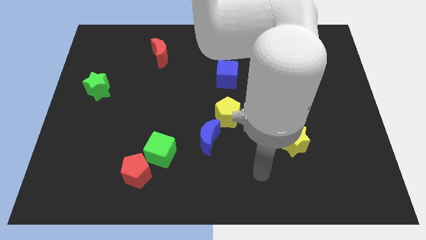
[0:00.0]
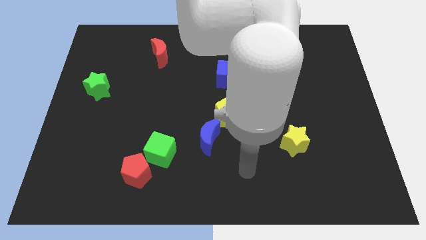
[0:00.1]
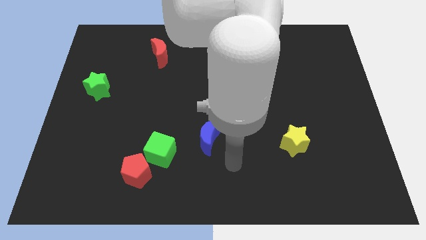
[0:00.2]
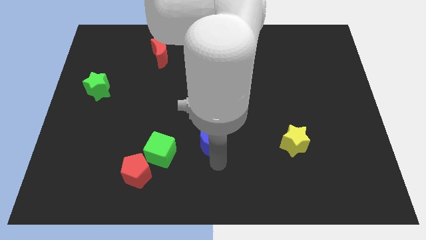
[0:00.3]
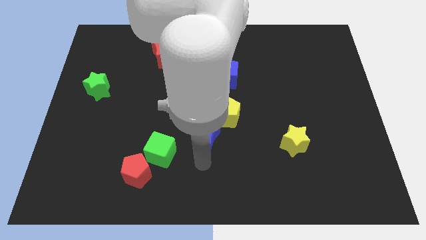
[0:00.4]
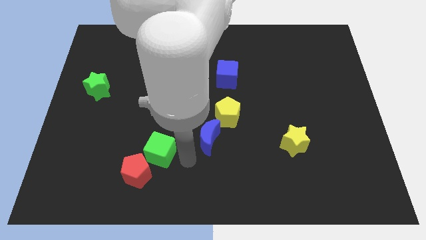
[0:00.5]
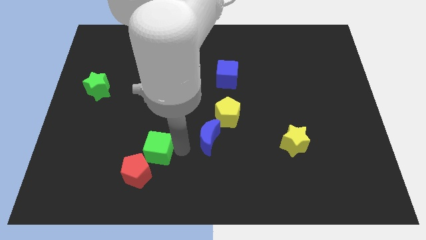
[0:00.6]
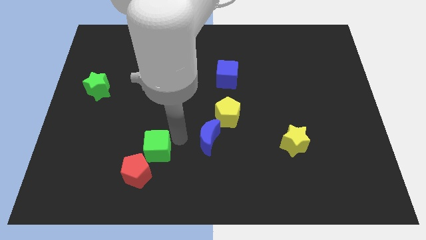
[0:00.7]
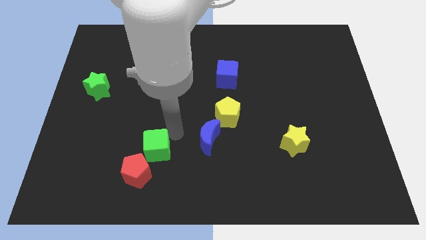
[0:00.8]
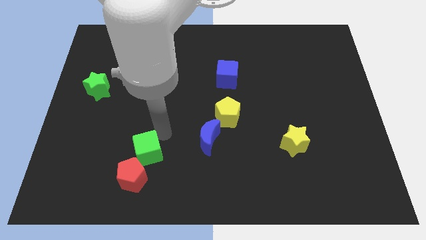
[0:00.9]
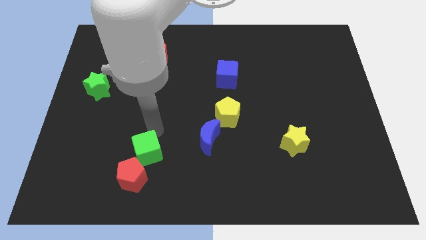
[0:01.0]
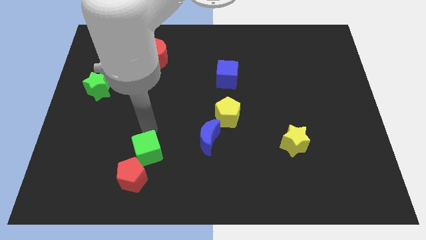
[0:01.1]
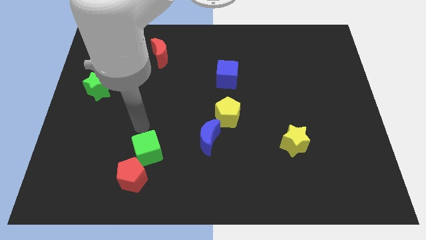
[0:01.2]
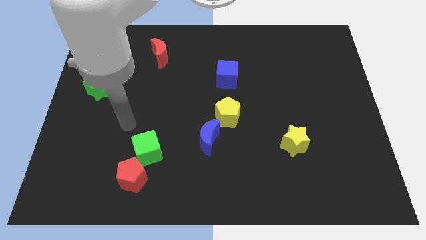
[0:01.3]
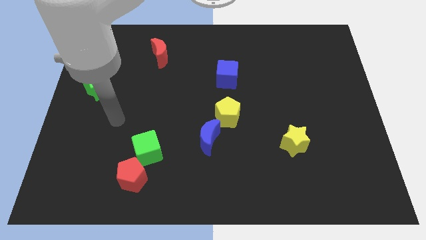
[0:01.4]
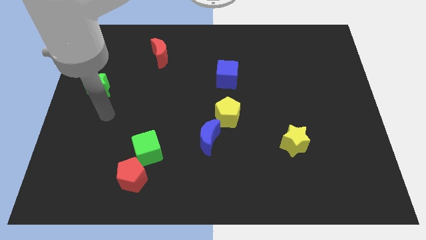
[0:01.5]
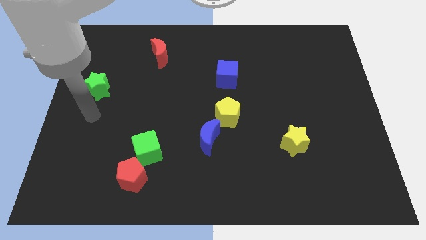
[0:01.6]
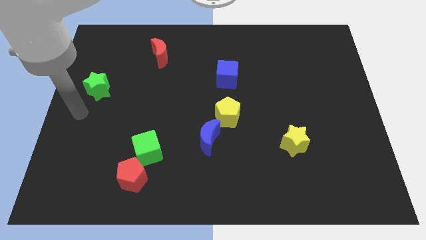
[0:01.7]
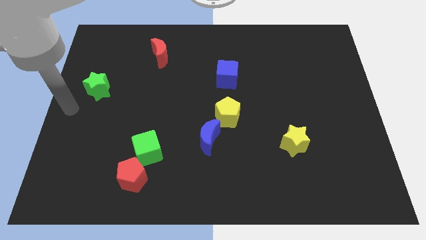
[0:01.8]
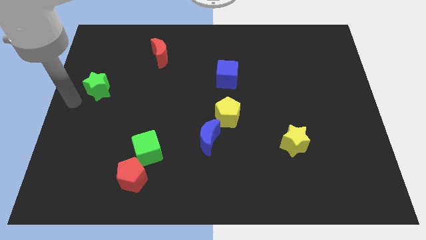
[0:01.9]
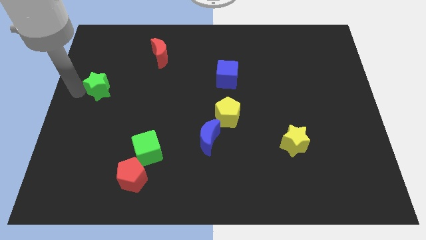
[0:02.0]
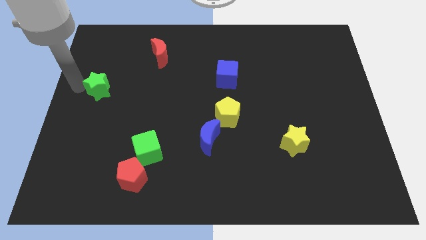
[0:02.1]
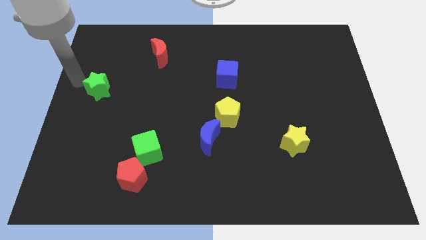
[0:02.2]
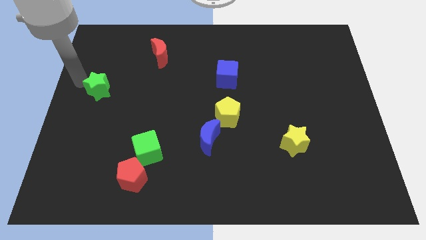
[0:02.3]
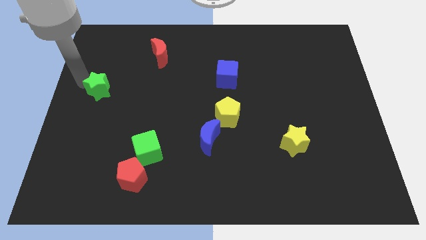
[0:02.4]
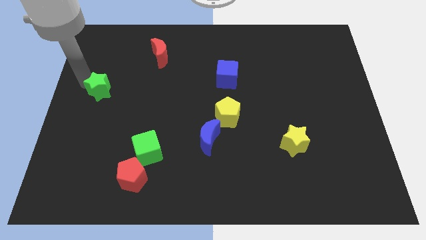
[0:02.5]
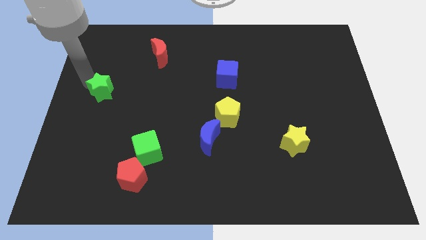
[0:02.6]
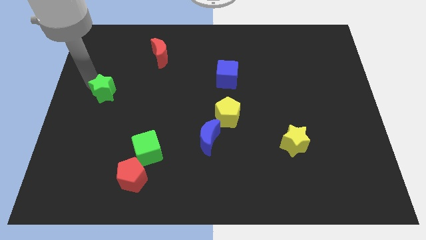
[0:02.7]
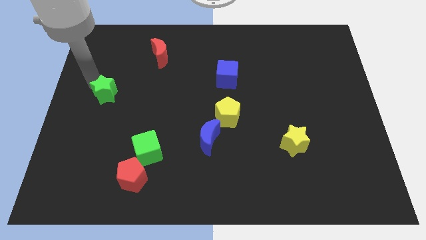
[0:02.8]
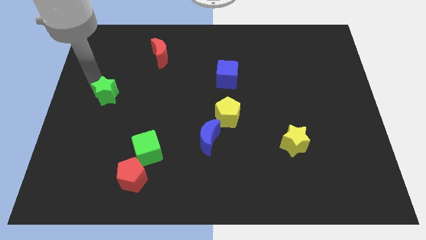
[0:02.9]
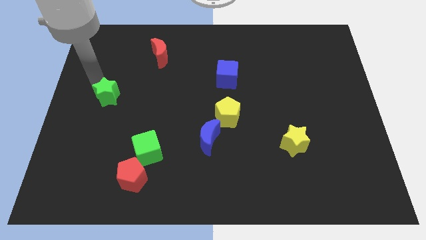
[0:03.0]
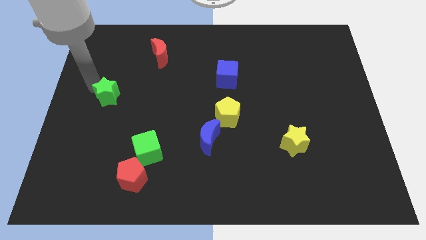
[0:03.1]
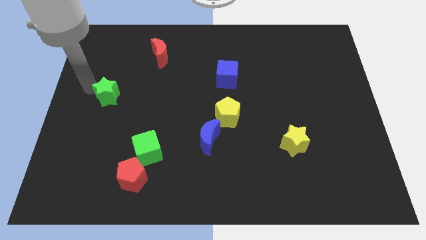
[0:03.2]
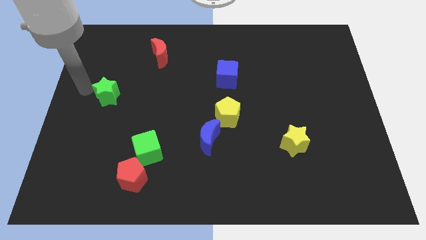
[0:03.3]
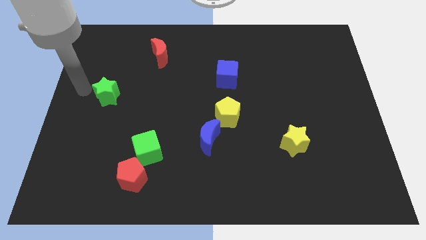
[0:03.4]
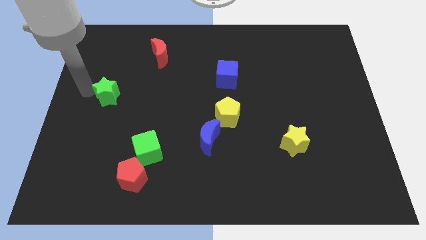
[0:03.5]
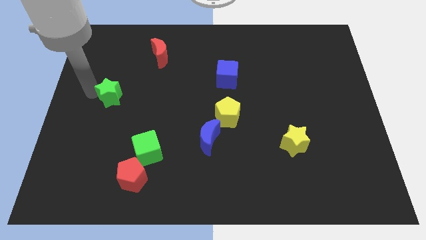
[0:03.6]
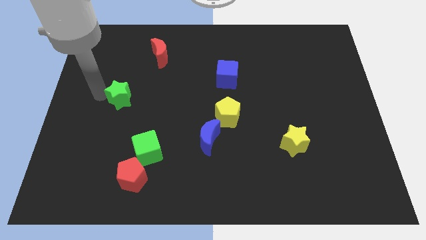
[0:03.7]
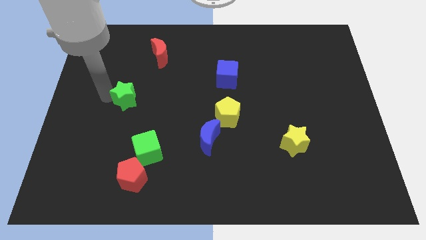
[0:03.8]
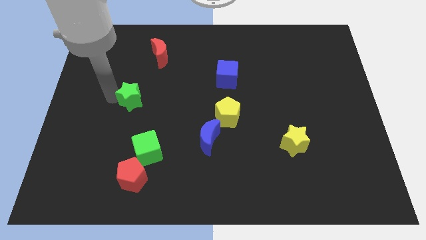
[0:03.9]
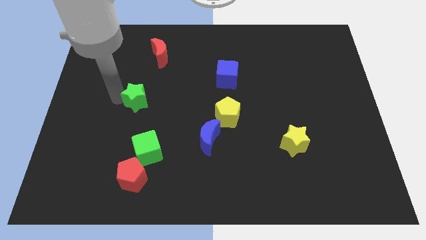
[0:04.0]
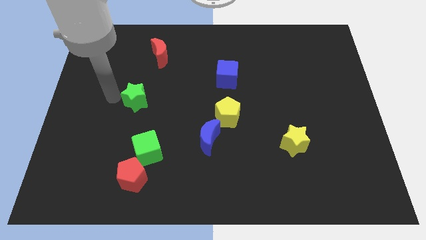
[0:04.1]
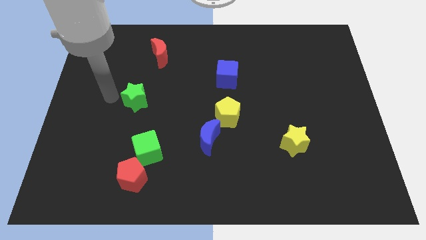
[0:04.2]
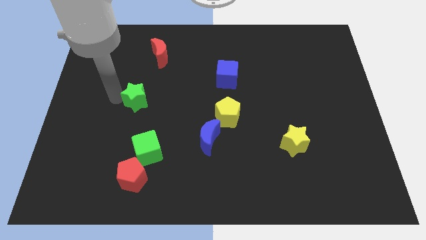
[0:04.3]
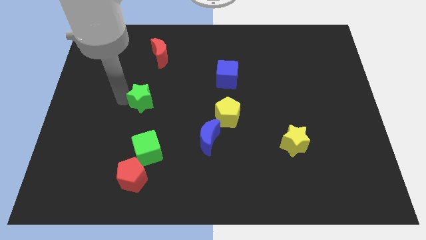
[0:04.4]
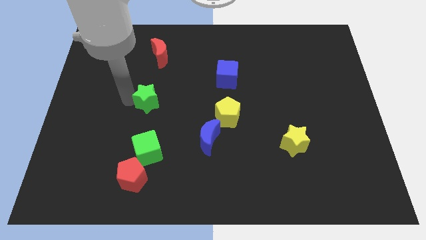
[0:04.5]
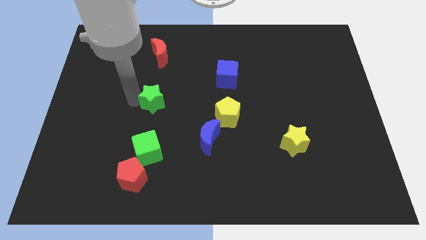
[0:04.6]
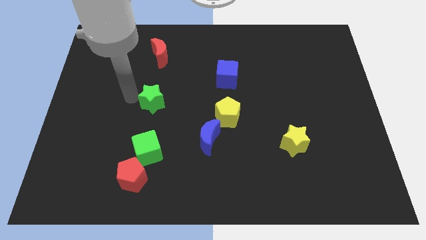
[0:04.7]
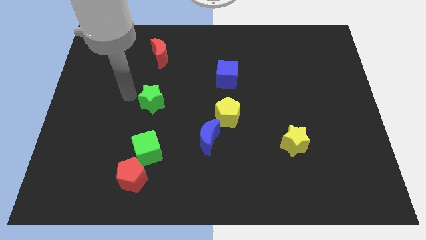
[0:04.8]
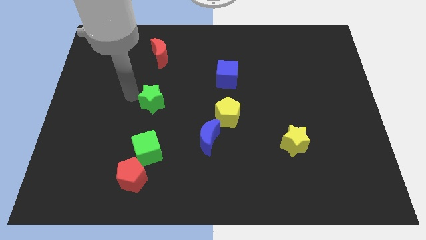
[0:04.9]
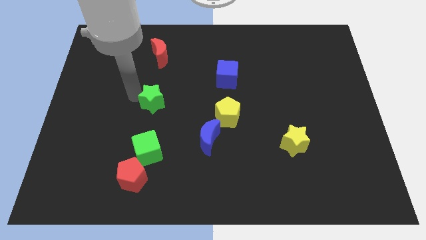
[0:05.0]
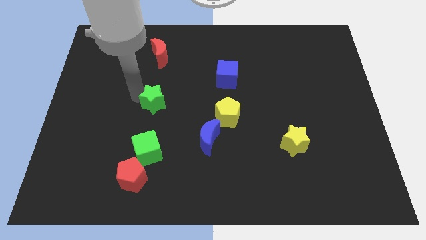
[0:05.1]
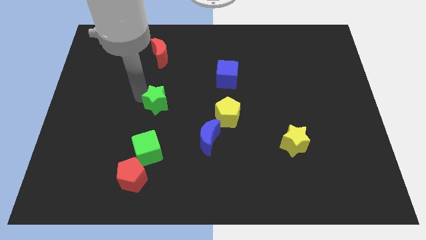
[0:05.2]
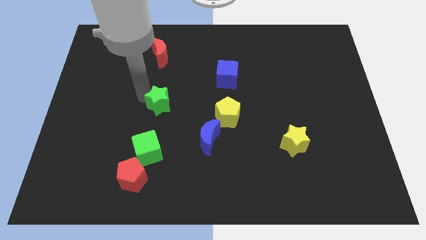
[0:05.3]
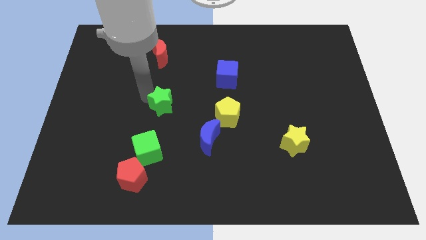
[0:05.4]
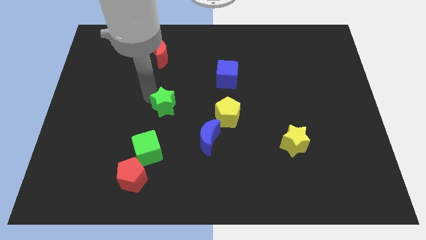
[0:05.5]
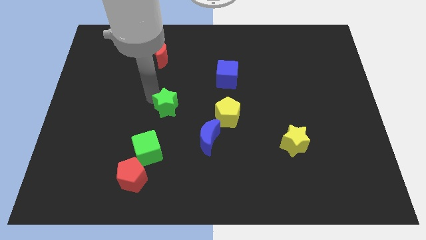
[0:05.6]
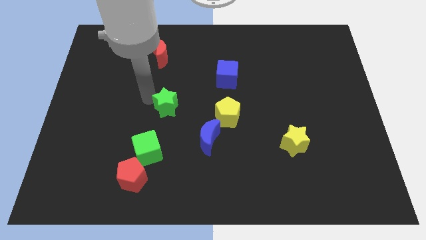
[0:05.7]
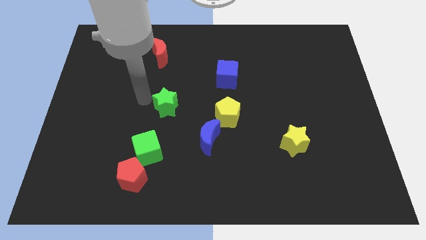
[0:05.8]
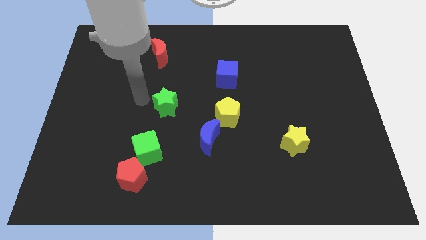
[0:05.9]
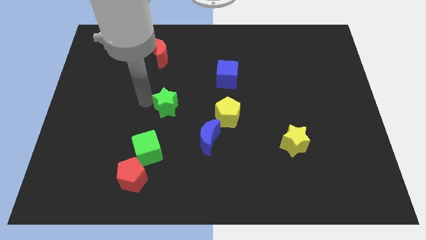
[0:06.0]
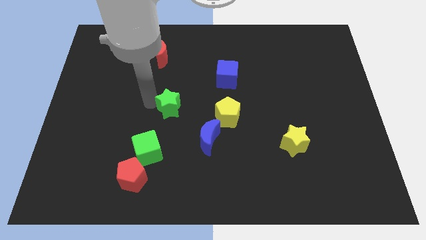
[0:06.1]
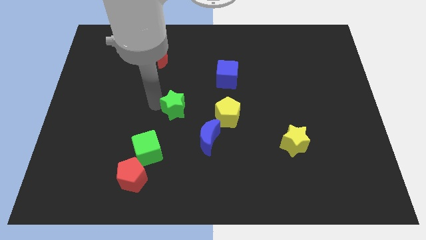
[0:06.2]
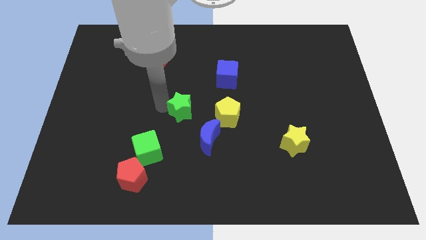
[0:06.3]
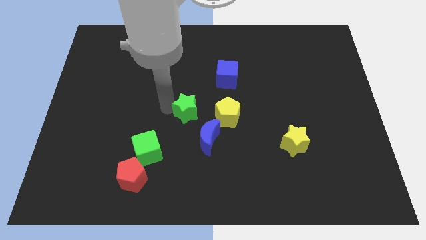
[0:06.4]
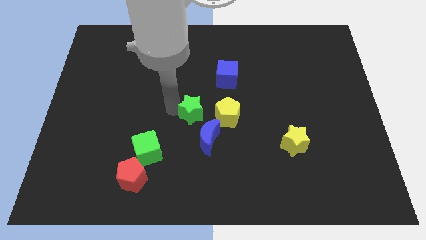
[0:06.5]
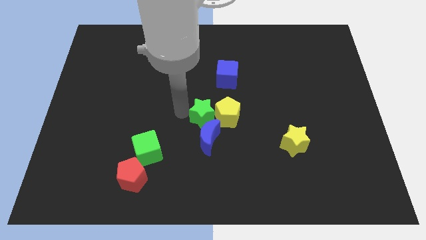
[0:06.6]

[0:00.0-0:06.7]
slide the green star close to the yellow pentagon

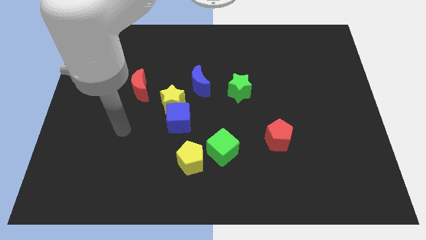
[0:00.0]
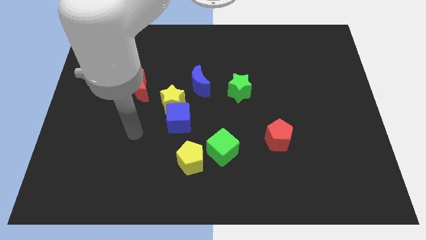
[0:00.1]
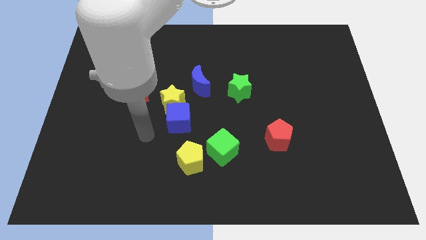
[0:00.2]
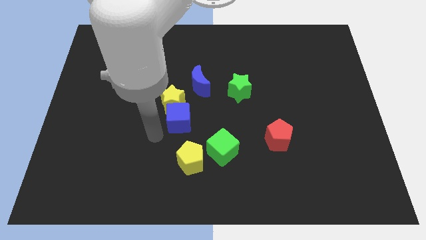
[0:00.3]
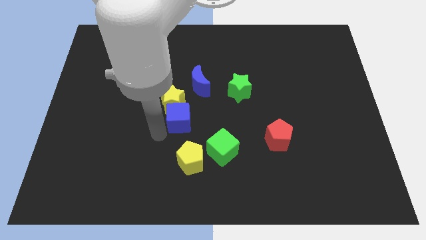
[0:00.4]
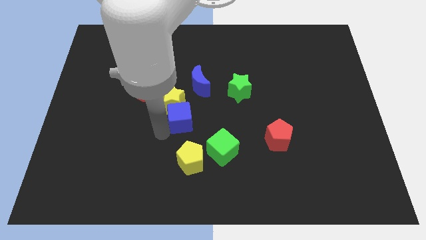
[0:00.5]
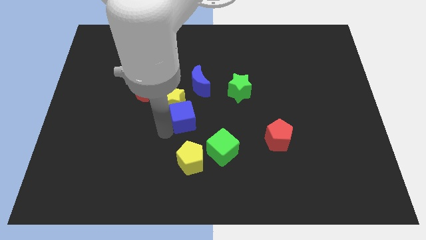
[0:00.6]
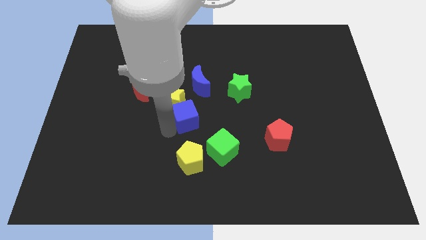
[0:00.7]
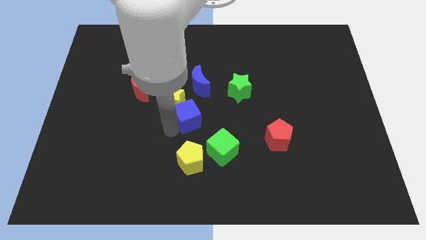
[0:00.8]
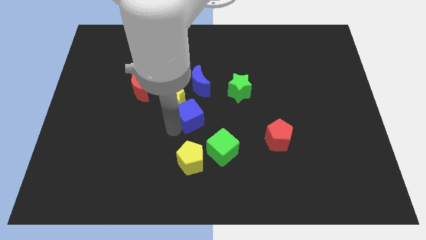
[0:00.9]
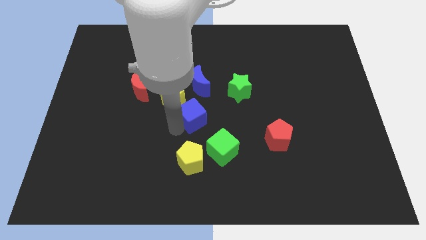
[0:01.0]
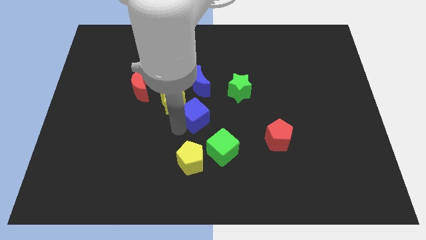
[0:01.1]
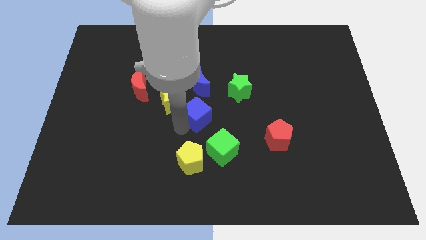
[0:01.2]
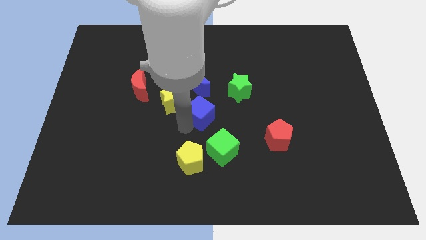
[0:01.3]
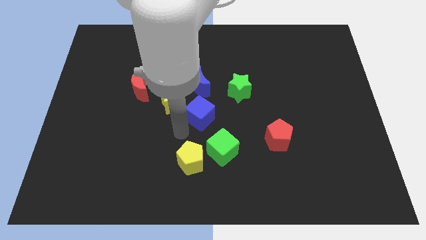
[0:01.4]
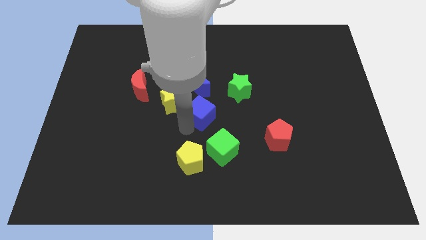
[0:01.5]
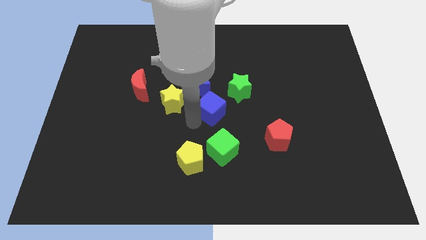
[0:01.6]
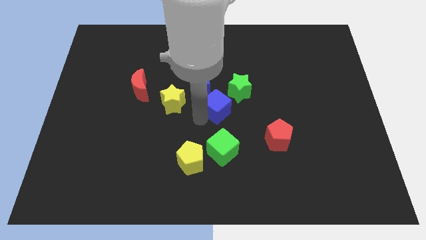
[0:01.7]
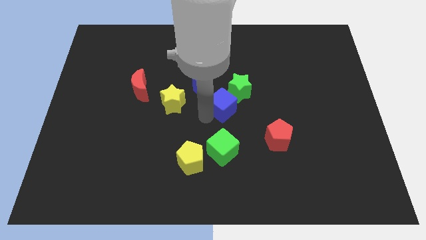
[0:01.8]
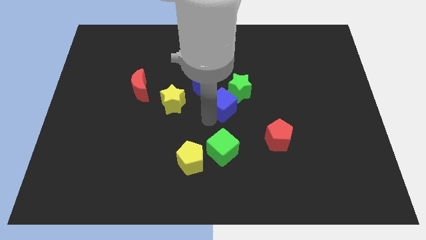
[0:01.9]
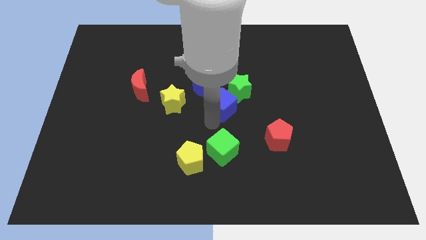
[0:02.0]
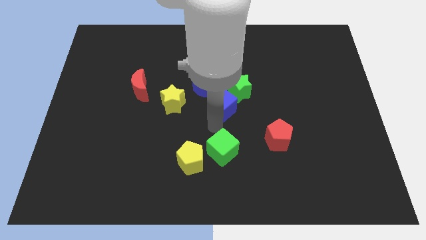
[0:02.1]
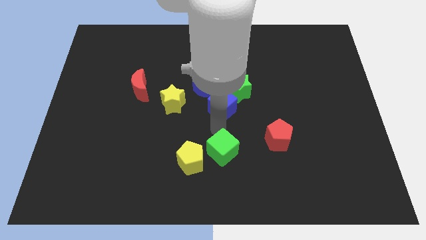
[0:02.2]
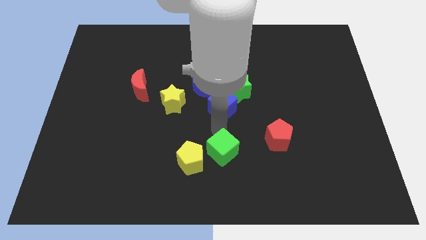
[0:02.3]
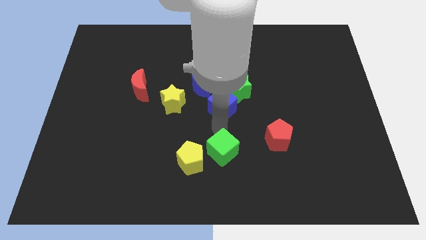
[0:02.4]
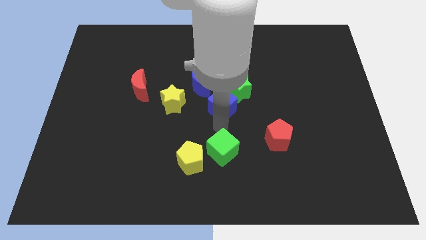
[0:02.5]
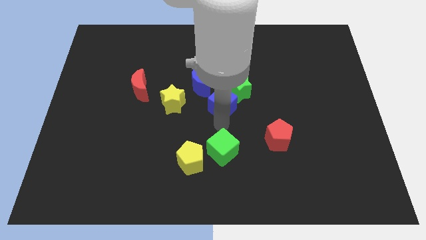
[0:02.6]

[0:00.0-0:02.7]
slide the blue cube next to the green star
